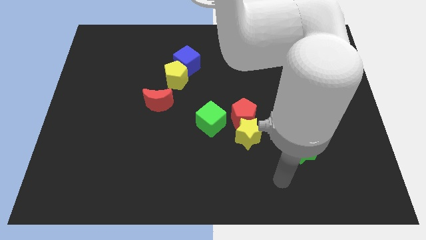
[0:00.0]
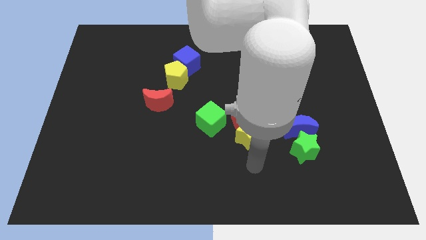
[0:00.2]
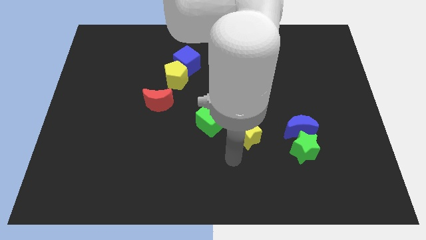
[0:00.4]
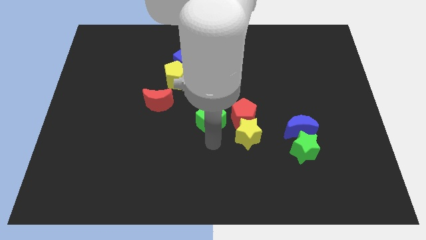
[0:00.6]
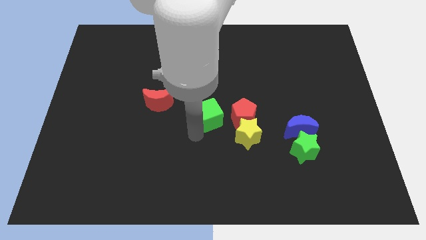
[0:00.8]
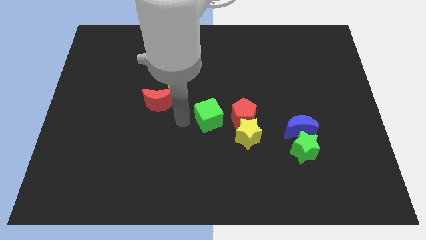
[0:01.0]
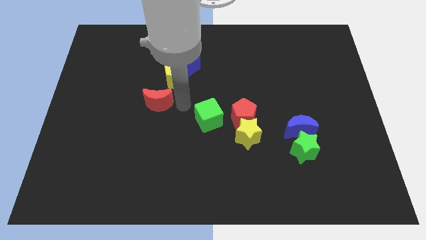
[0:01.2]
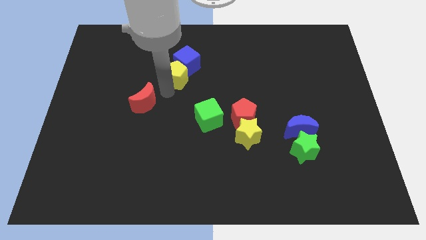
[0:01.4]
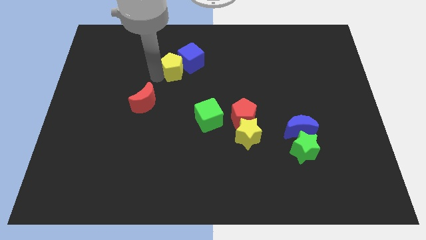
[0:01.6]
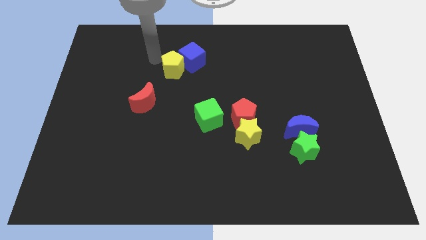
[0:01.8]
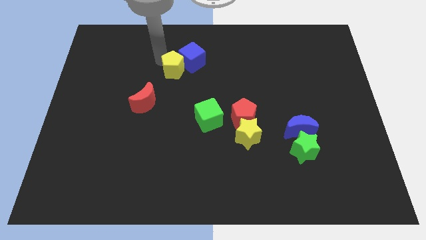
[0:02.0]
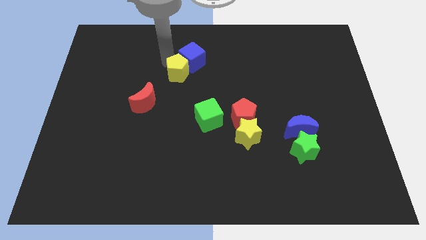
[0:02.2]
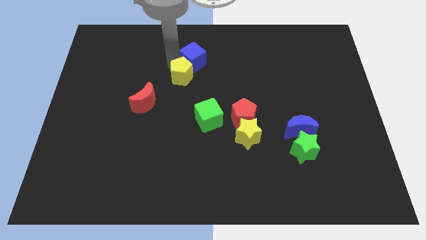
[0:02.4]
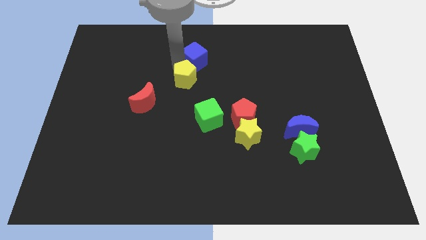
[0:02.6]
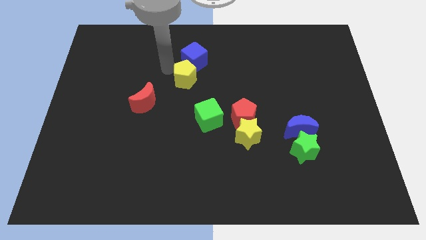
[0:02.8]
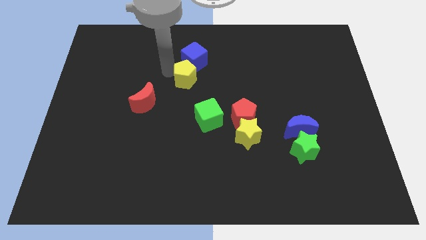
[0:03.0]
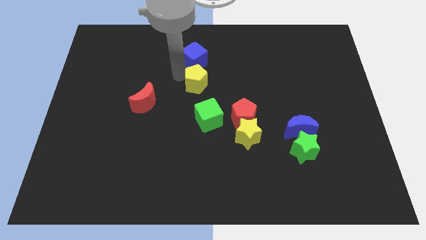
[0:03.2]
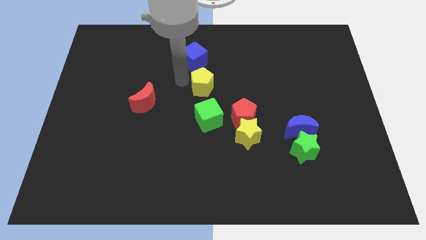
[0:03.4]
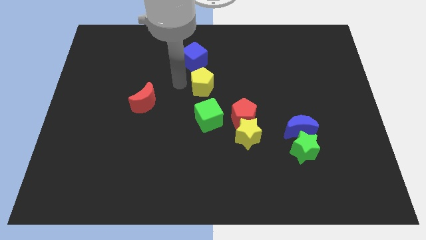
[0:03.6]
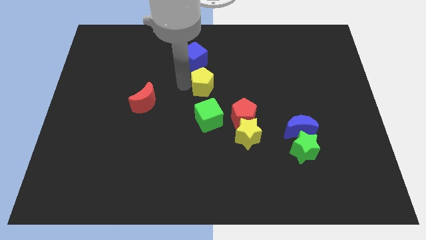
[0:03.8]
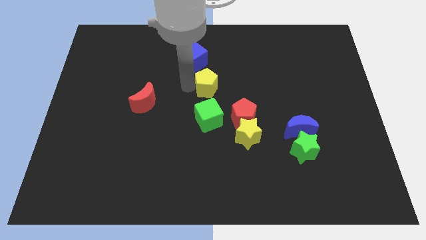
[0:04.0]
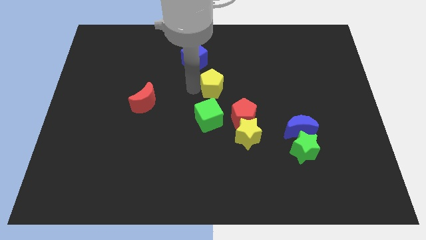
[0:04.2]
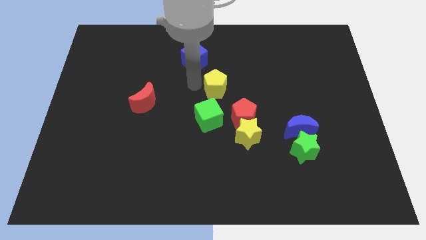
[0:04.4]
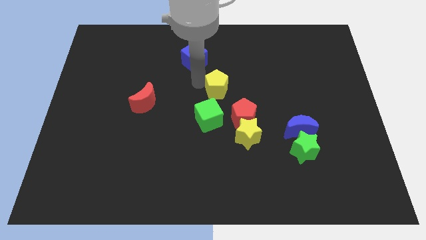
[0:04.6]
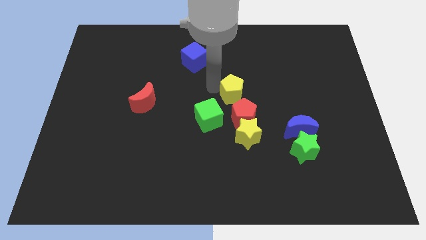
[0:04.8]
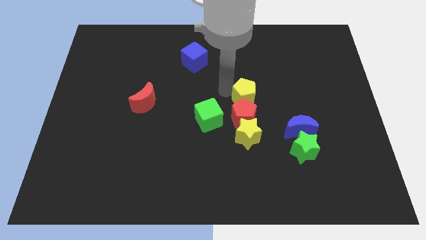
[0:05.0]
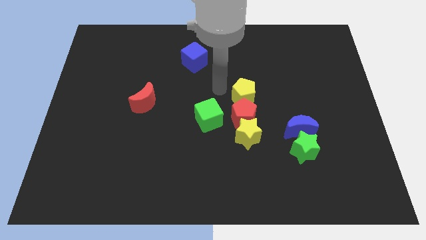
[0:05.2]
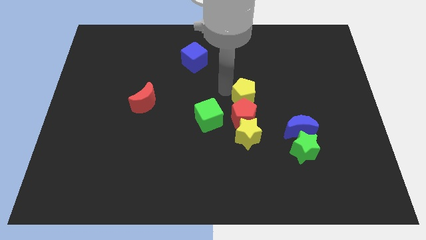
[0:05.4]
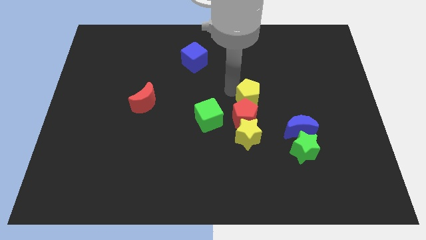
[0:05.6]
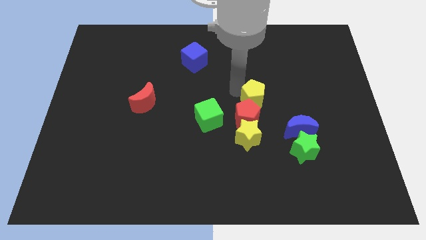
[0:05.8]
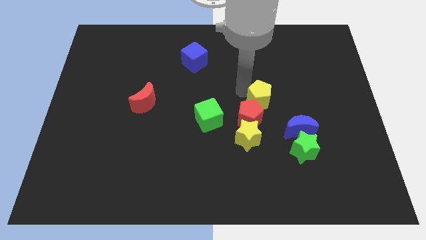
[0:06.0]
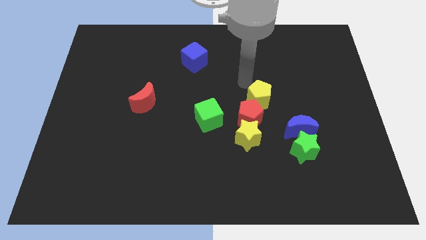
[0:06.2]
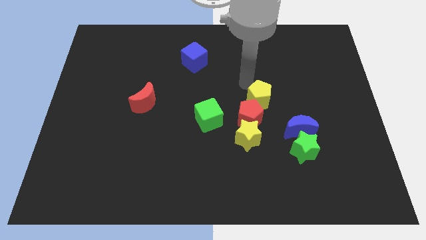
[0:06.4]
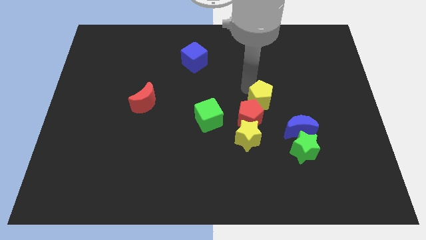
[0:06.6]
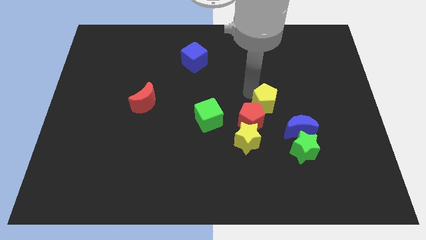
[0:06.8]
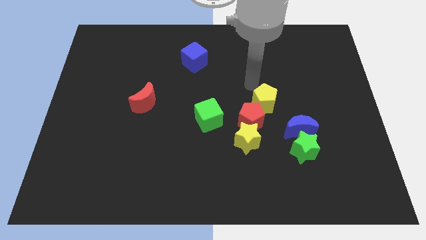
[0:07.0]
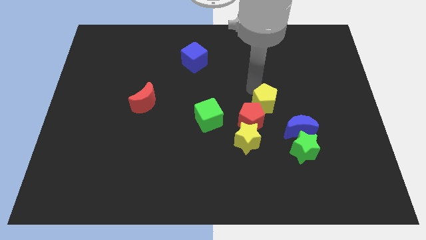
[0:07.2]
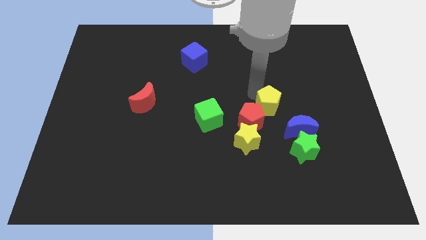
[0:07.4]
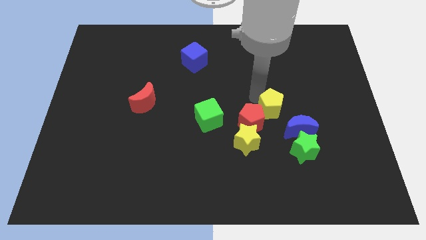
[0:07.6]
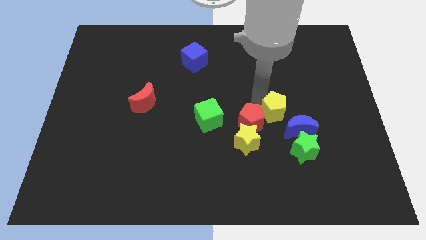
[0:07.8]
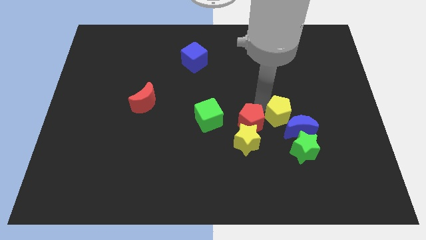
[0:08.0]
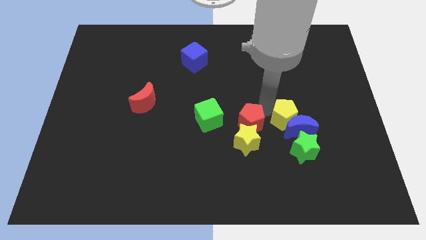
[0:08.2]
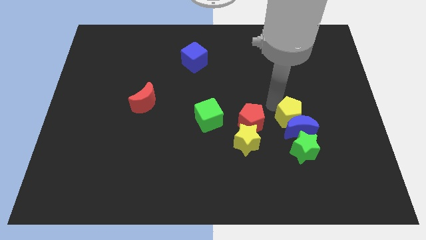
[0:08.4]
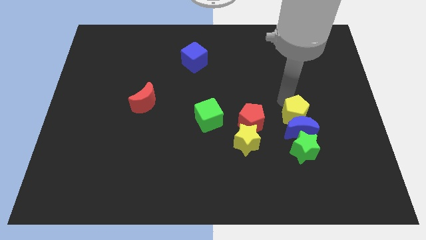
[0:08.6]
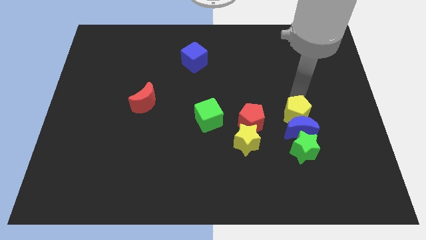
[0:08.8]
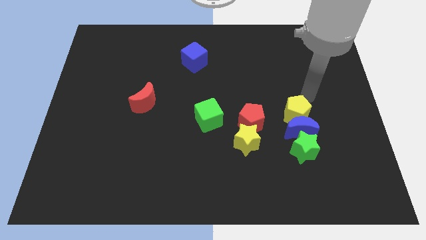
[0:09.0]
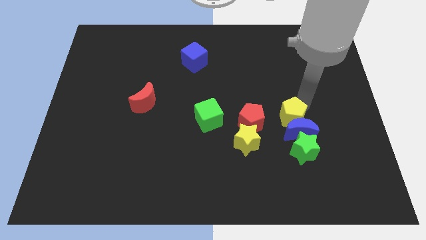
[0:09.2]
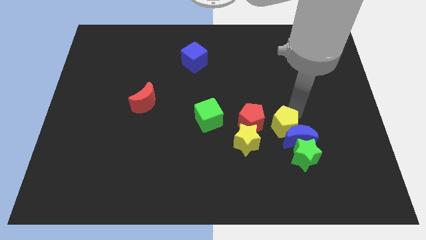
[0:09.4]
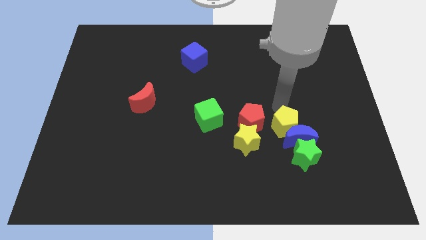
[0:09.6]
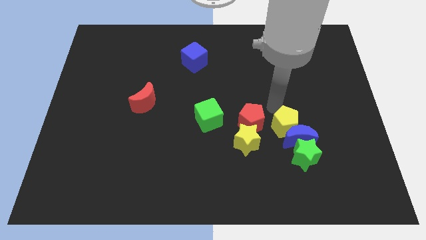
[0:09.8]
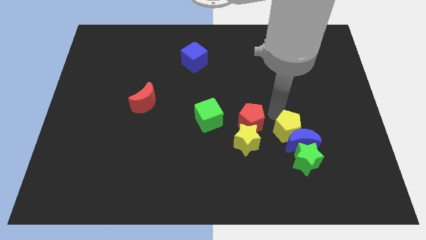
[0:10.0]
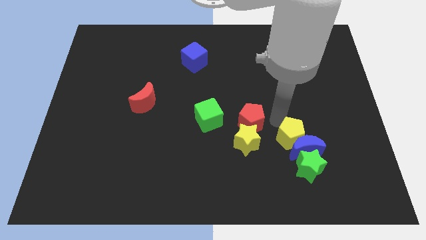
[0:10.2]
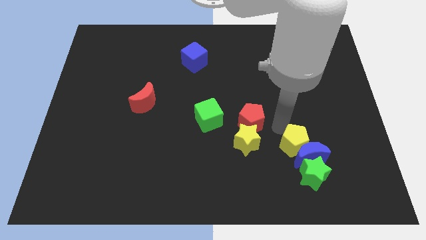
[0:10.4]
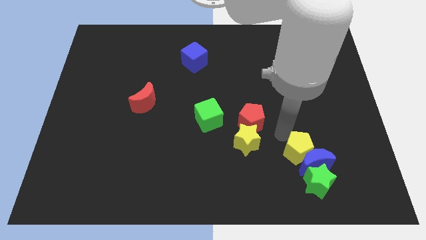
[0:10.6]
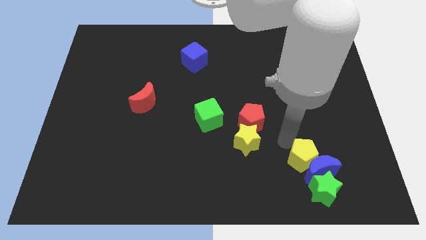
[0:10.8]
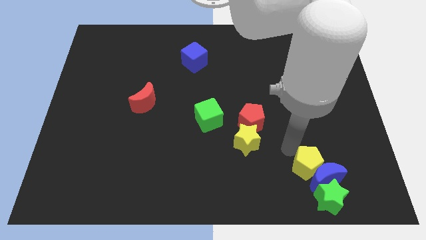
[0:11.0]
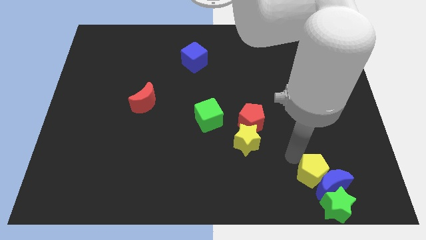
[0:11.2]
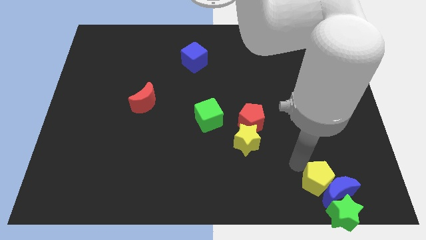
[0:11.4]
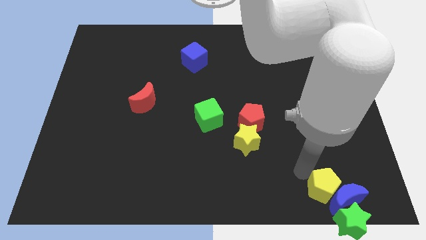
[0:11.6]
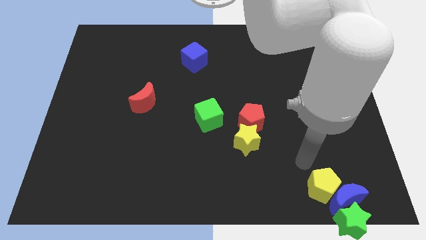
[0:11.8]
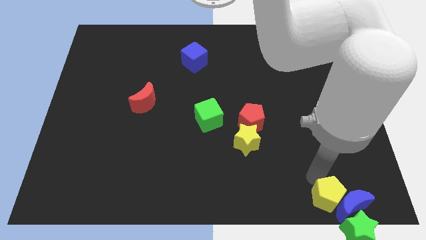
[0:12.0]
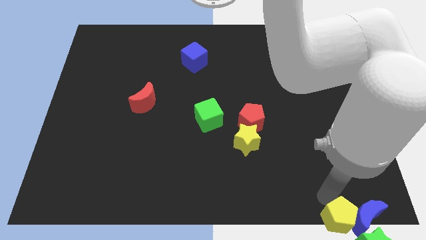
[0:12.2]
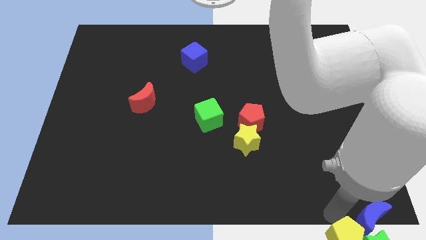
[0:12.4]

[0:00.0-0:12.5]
push the yellow pentagon to the green star

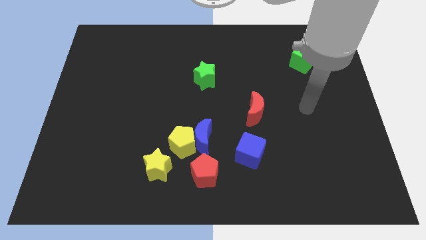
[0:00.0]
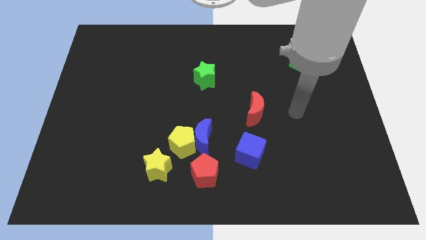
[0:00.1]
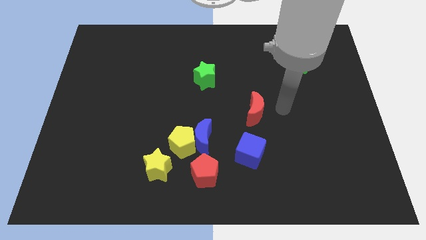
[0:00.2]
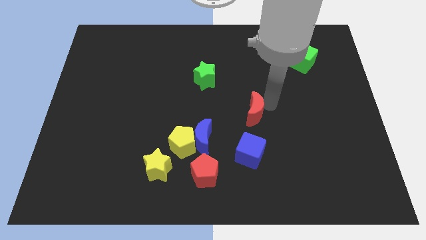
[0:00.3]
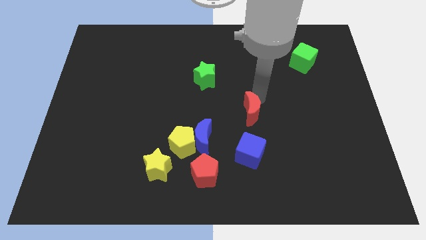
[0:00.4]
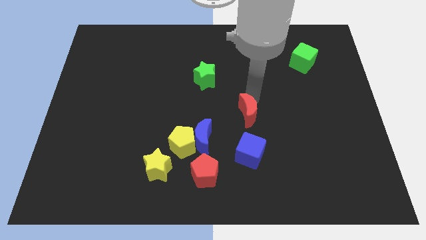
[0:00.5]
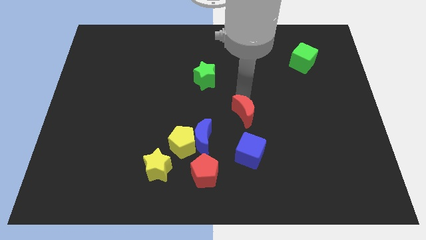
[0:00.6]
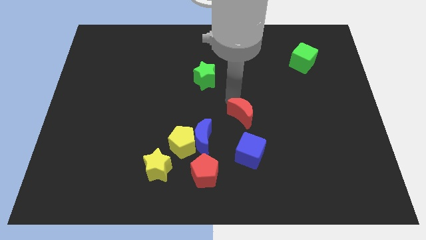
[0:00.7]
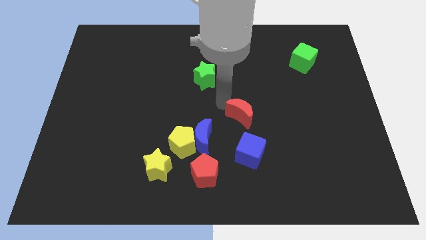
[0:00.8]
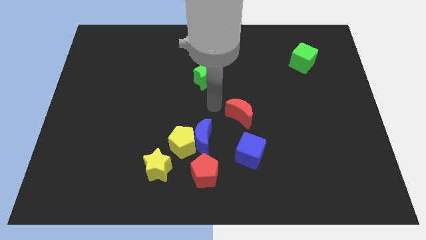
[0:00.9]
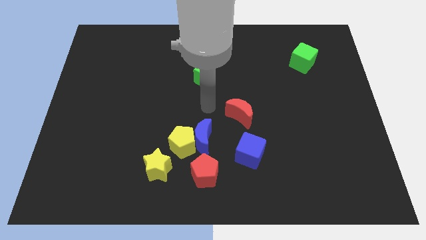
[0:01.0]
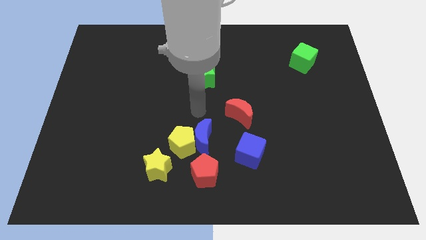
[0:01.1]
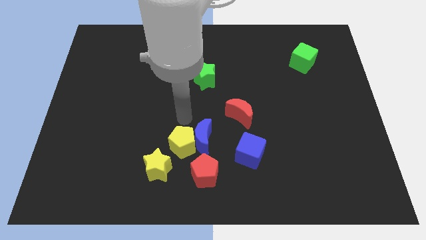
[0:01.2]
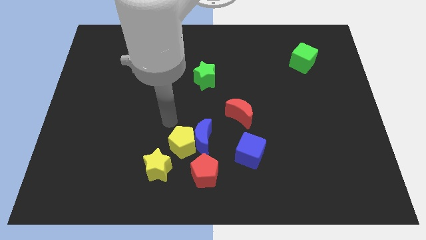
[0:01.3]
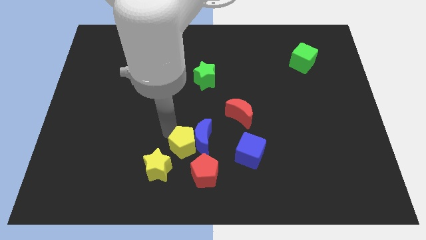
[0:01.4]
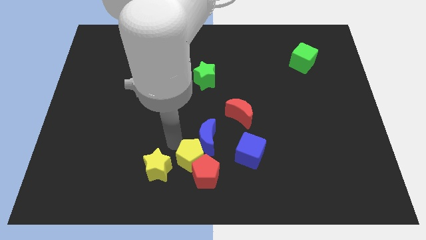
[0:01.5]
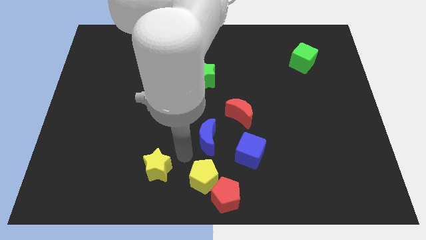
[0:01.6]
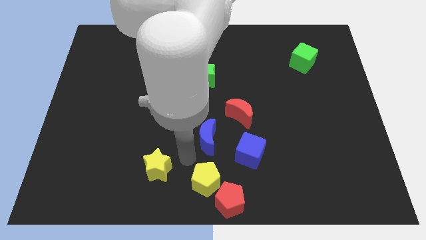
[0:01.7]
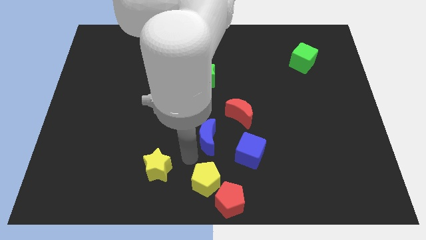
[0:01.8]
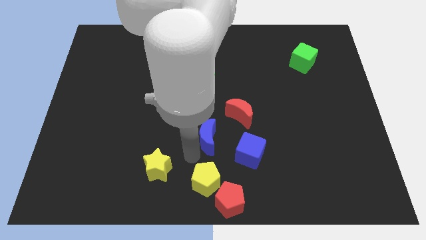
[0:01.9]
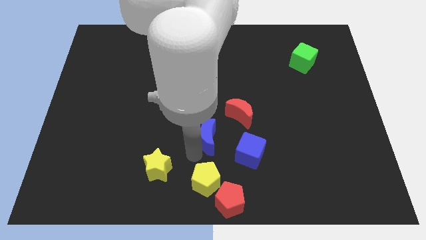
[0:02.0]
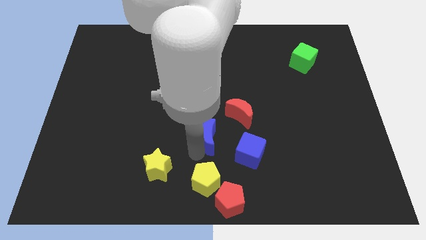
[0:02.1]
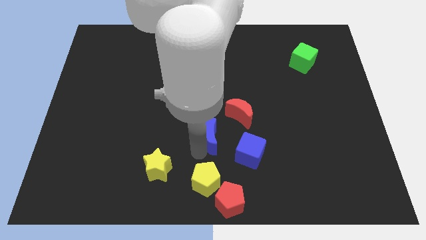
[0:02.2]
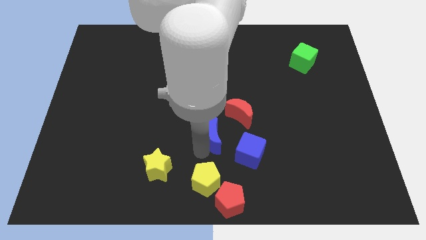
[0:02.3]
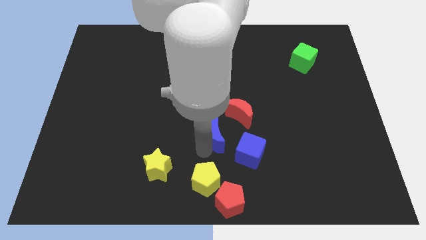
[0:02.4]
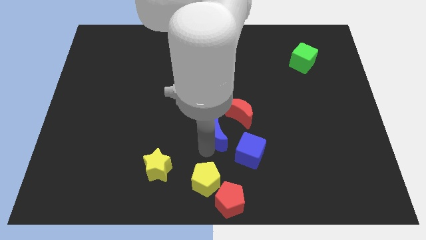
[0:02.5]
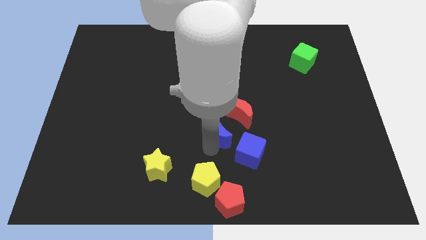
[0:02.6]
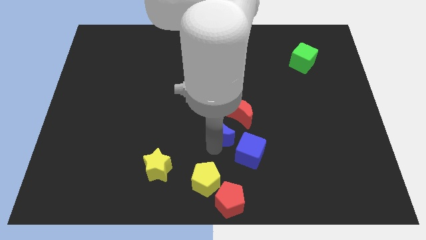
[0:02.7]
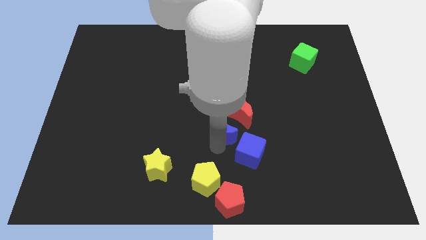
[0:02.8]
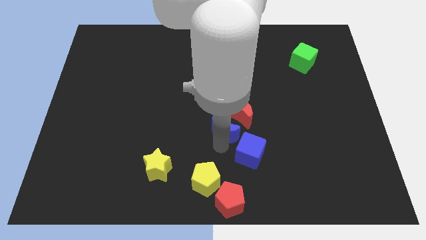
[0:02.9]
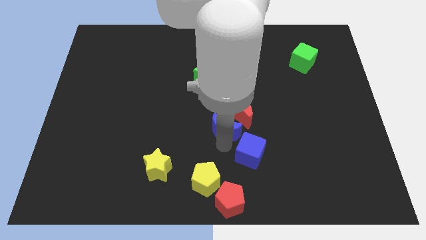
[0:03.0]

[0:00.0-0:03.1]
slide the blue moon next to the red moon
